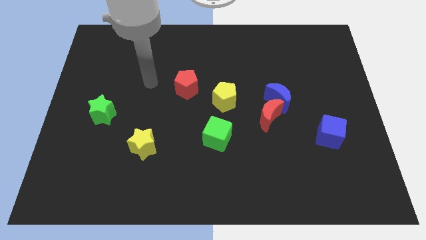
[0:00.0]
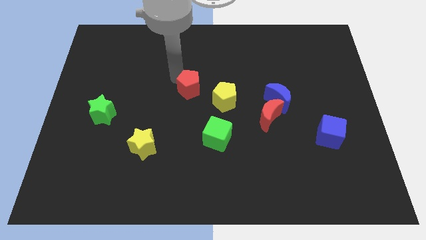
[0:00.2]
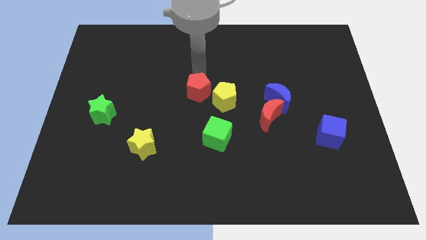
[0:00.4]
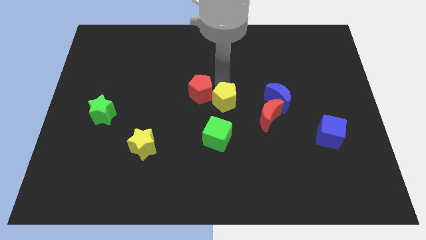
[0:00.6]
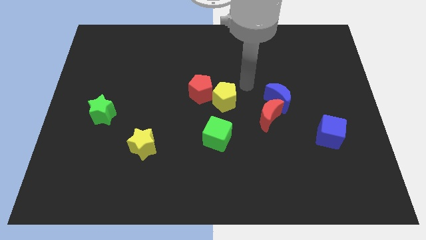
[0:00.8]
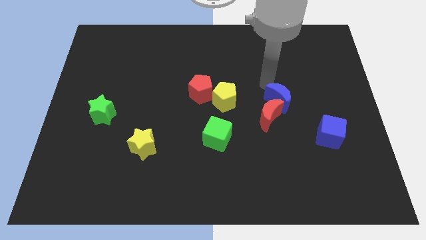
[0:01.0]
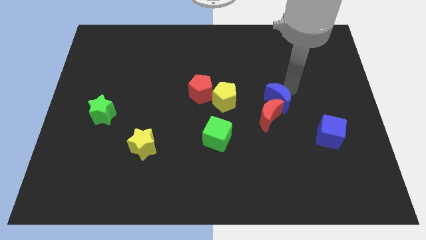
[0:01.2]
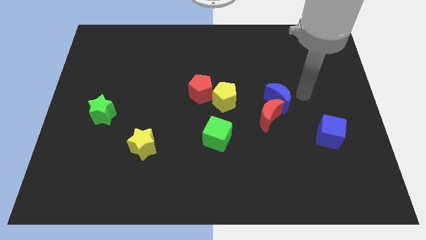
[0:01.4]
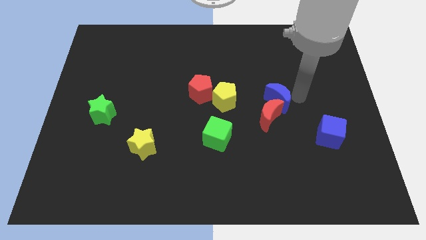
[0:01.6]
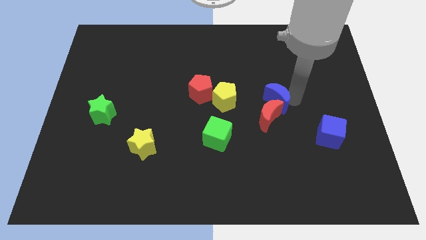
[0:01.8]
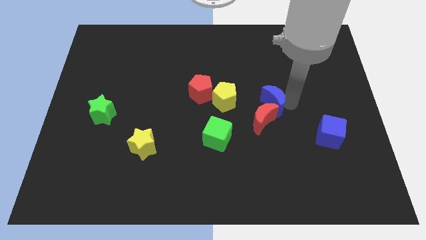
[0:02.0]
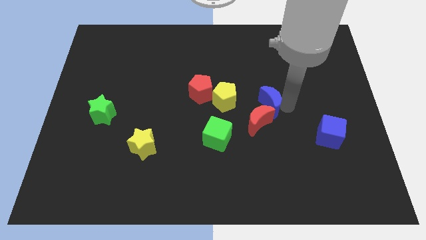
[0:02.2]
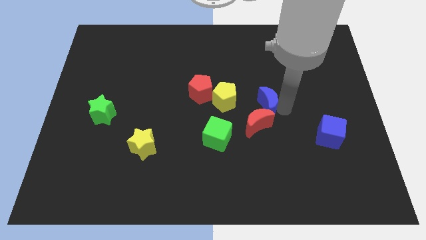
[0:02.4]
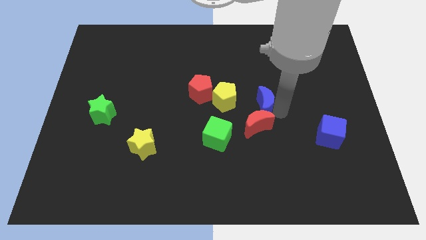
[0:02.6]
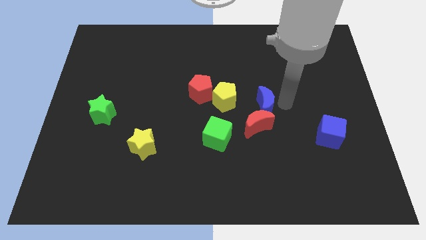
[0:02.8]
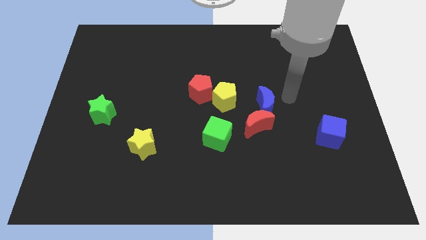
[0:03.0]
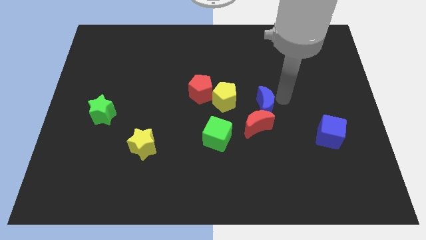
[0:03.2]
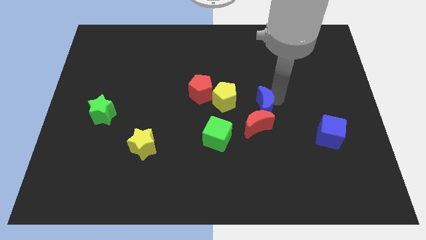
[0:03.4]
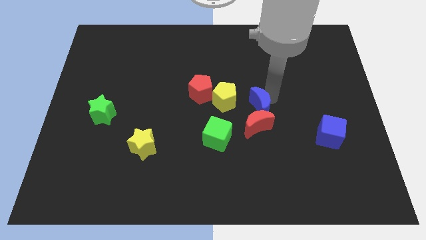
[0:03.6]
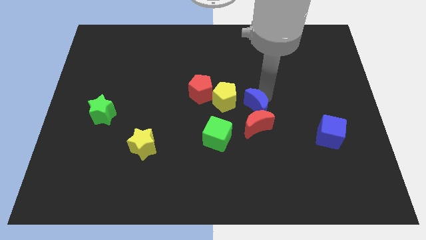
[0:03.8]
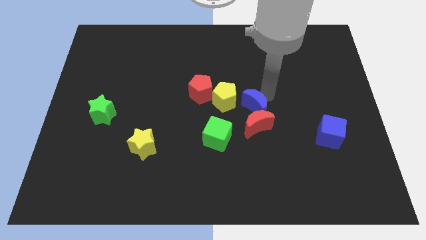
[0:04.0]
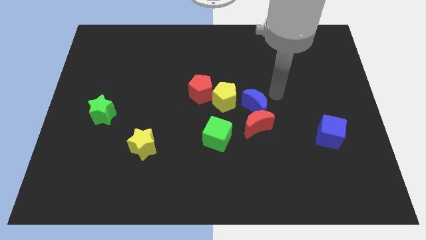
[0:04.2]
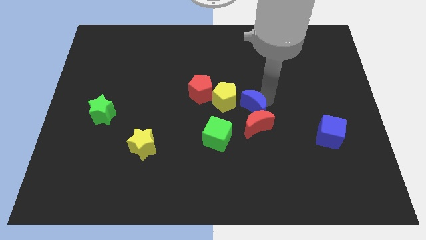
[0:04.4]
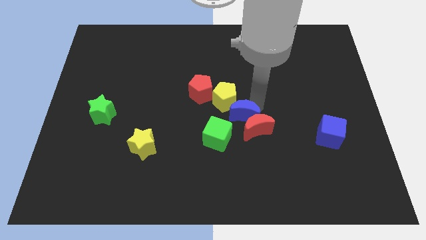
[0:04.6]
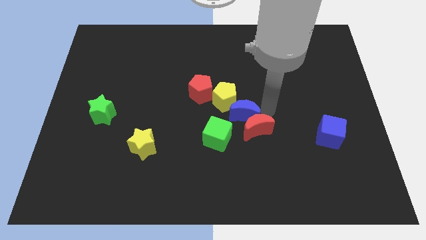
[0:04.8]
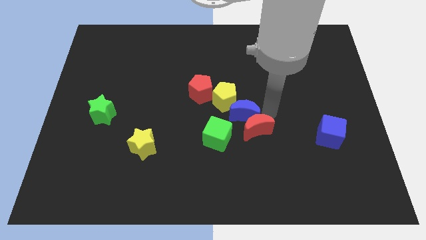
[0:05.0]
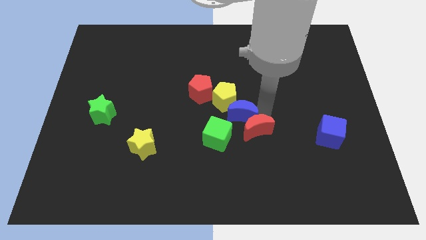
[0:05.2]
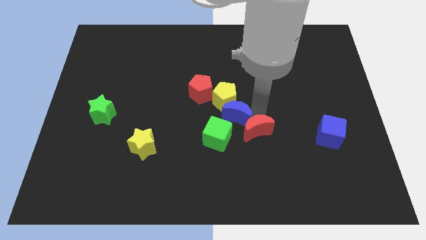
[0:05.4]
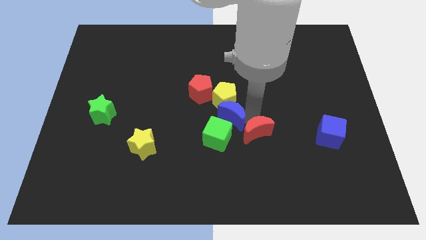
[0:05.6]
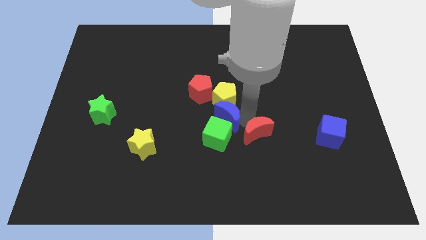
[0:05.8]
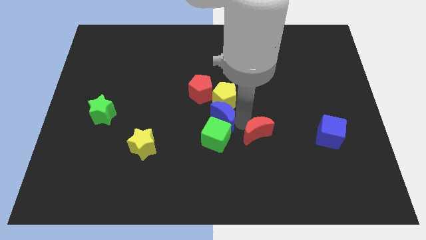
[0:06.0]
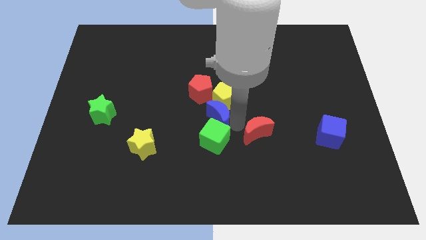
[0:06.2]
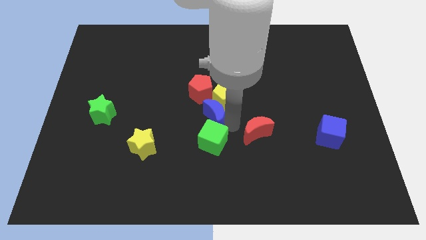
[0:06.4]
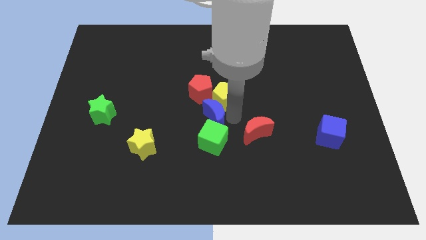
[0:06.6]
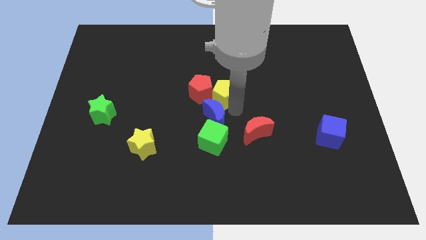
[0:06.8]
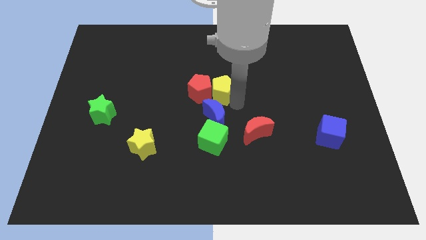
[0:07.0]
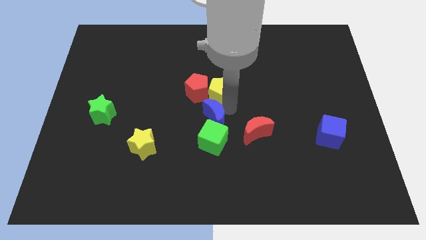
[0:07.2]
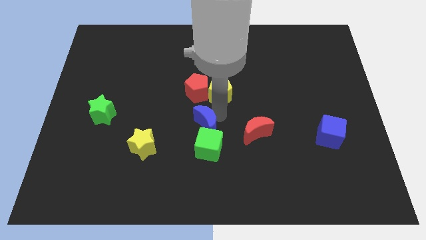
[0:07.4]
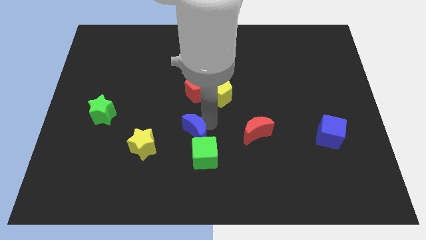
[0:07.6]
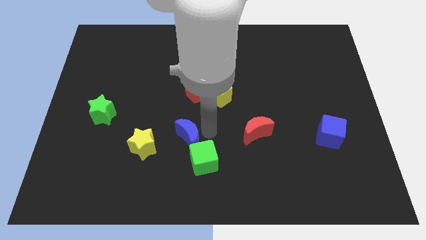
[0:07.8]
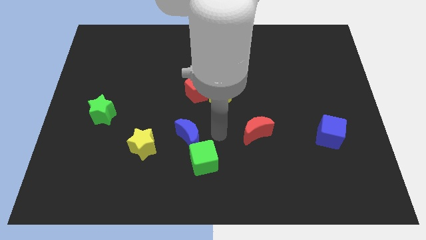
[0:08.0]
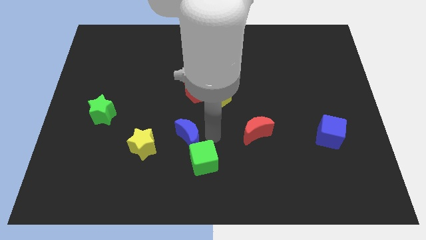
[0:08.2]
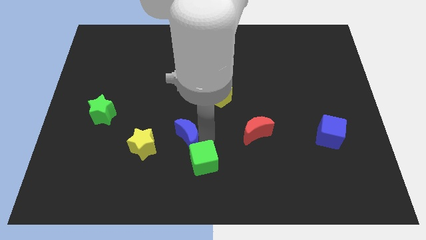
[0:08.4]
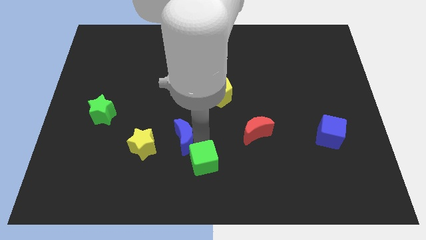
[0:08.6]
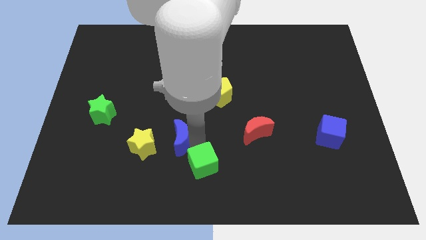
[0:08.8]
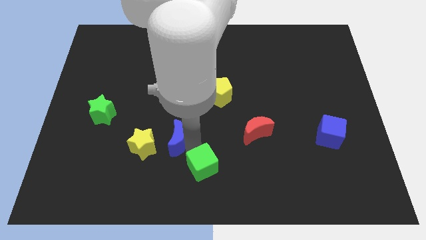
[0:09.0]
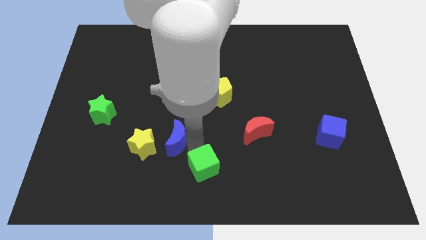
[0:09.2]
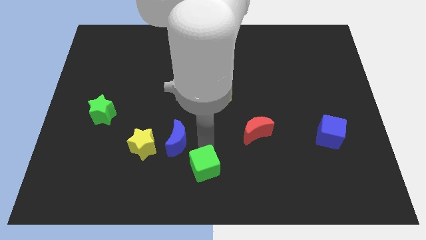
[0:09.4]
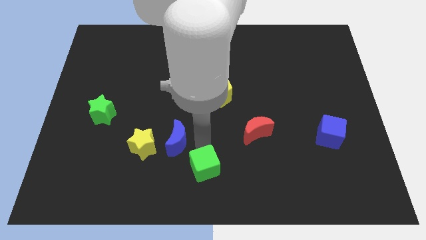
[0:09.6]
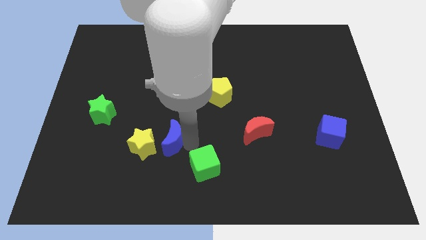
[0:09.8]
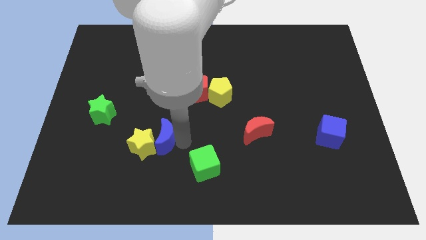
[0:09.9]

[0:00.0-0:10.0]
slide the blue moon close to the yellow star

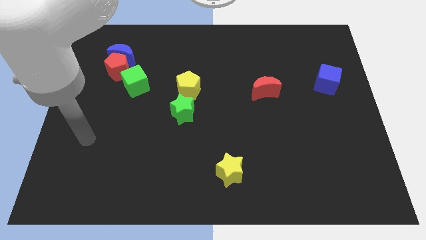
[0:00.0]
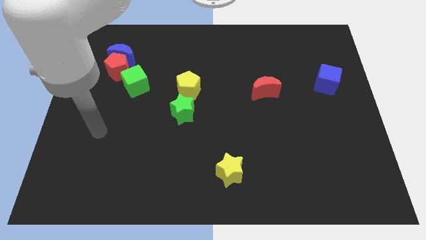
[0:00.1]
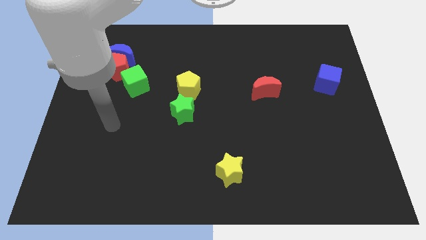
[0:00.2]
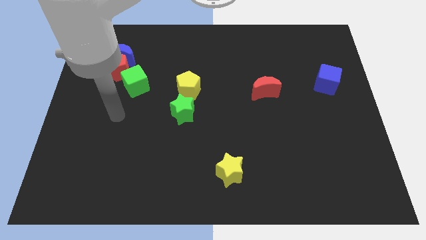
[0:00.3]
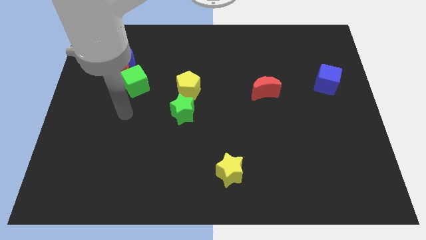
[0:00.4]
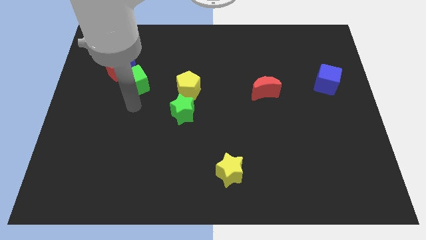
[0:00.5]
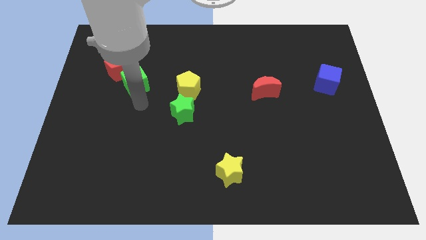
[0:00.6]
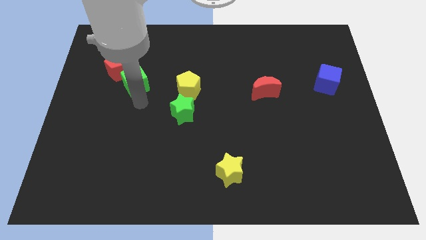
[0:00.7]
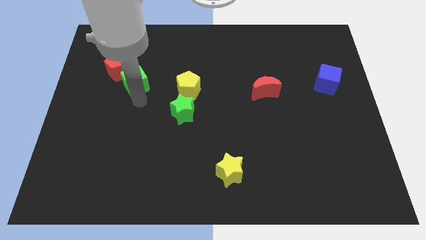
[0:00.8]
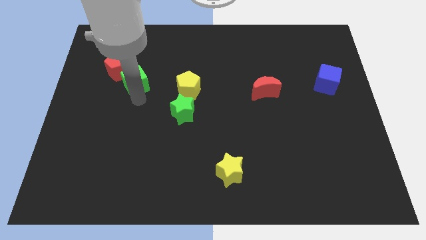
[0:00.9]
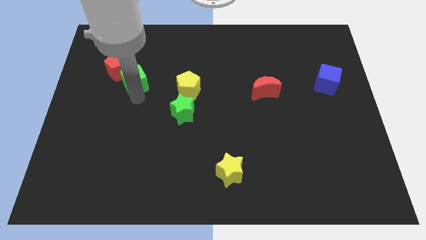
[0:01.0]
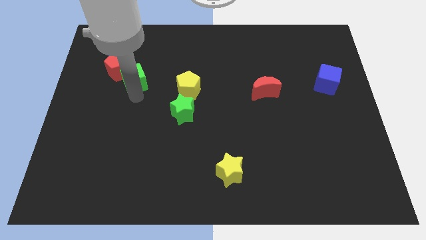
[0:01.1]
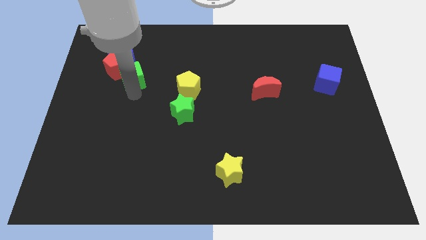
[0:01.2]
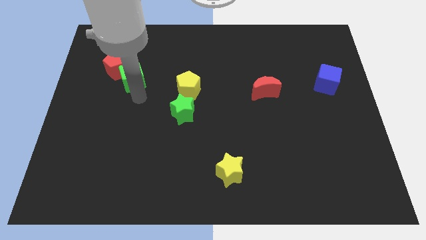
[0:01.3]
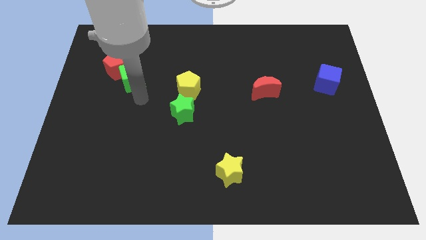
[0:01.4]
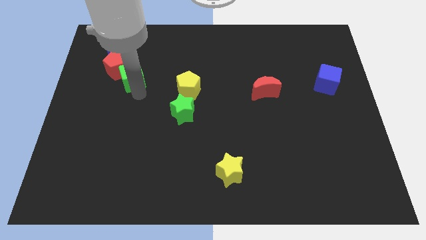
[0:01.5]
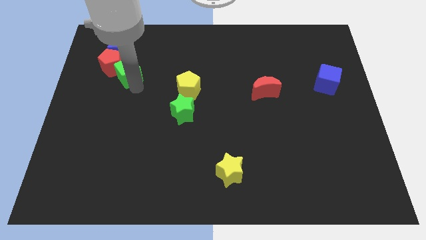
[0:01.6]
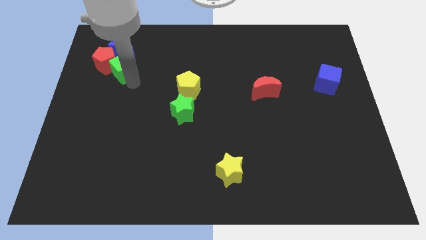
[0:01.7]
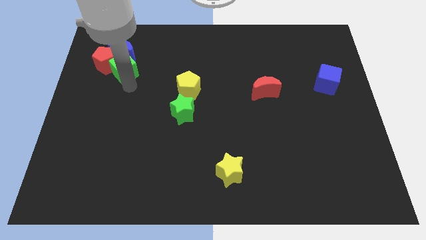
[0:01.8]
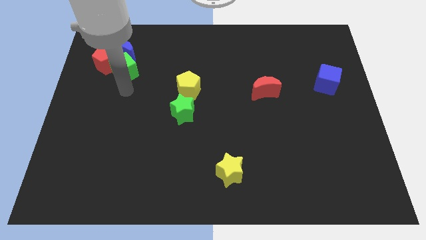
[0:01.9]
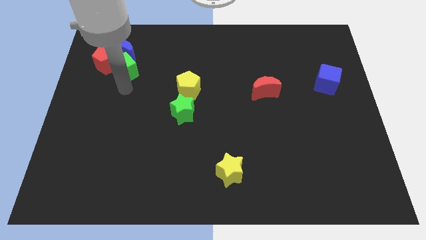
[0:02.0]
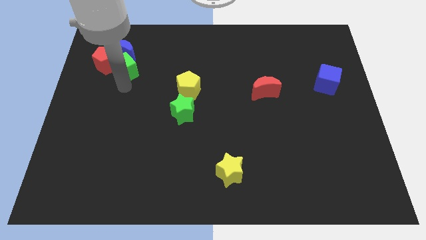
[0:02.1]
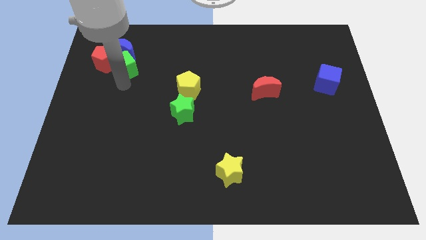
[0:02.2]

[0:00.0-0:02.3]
put the green cube to the blue moon
